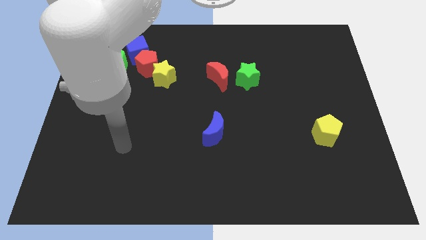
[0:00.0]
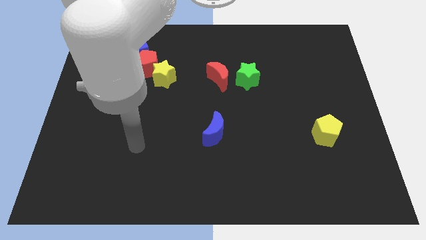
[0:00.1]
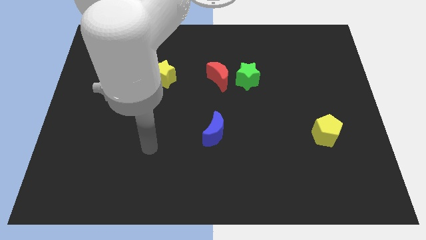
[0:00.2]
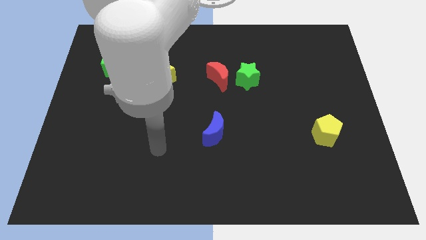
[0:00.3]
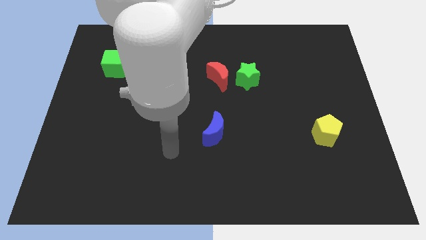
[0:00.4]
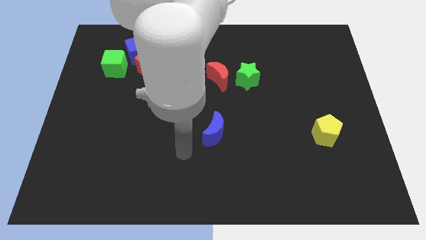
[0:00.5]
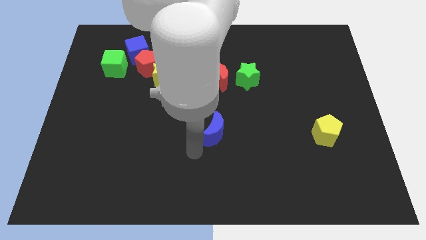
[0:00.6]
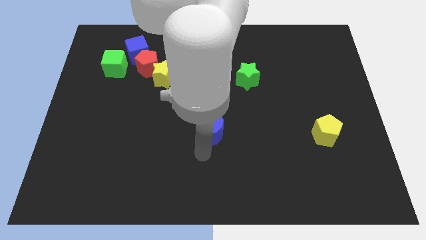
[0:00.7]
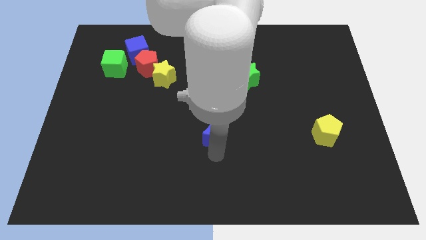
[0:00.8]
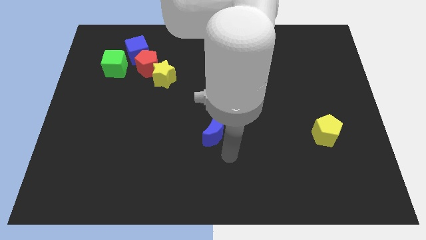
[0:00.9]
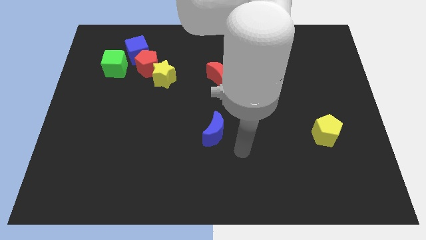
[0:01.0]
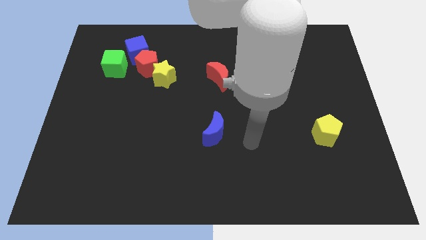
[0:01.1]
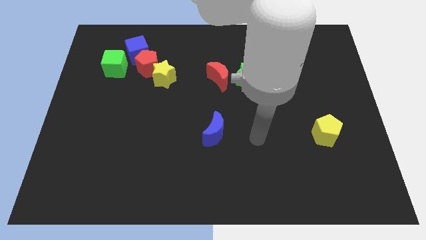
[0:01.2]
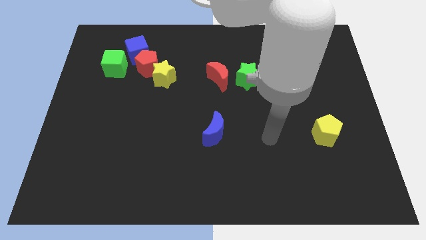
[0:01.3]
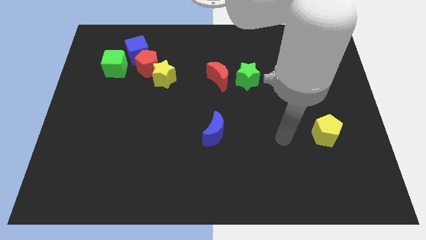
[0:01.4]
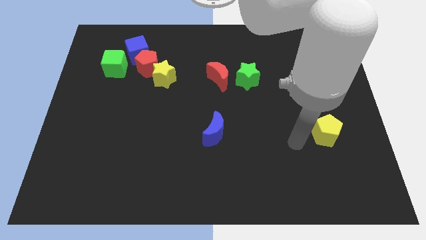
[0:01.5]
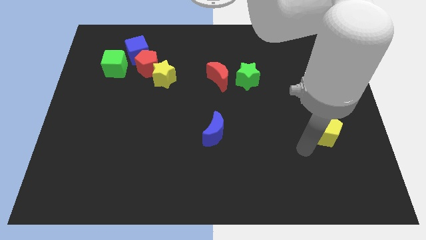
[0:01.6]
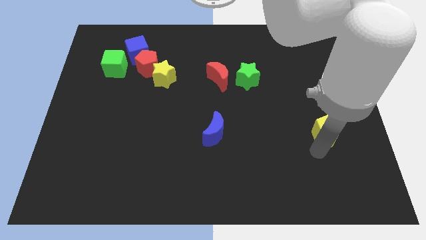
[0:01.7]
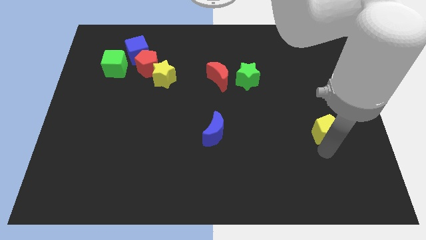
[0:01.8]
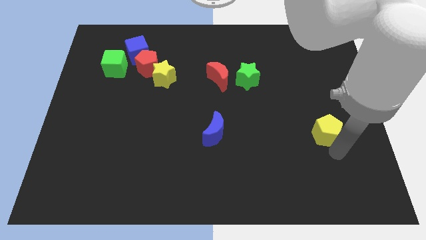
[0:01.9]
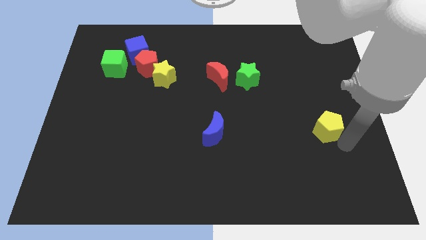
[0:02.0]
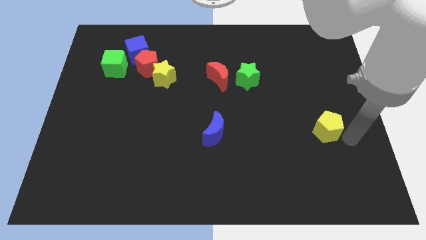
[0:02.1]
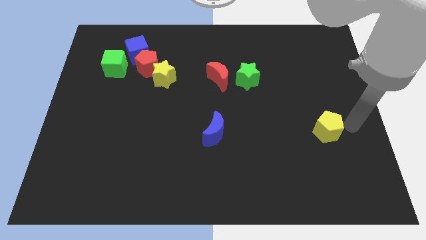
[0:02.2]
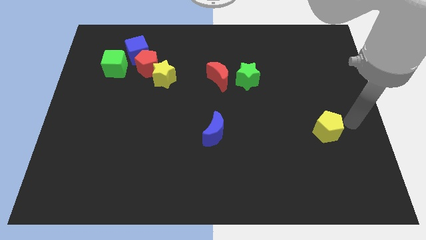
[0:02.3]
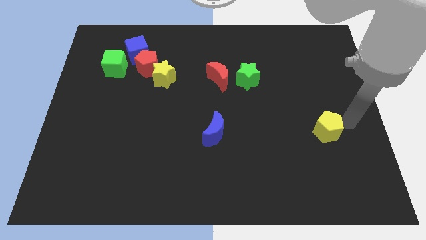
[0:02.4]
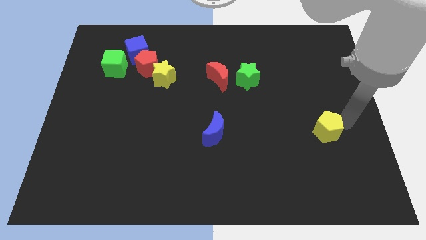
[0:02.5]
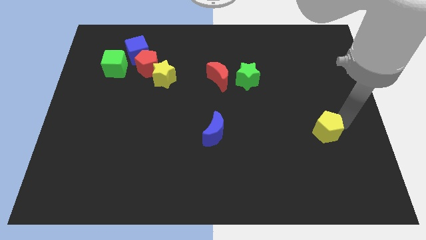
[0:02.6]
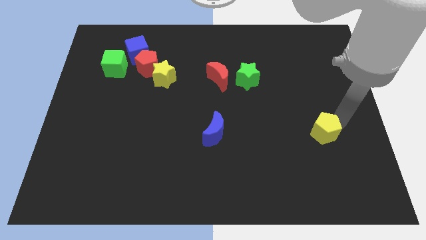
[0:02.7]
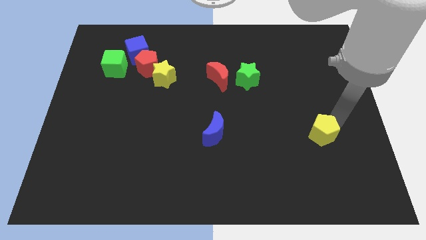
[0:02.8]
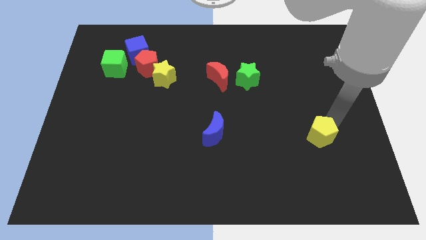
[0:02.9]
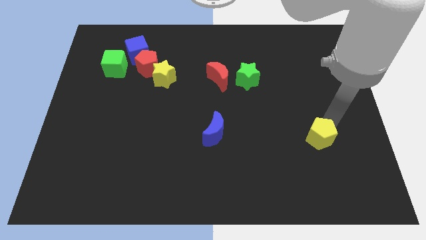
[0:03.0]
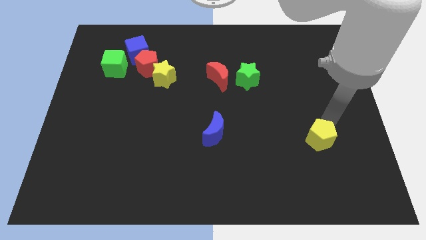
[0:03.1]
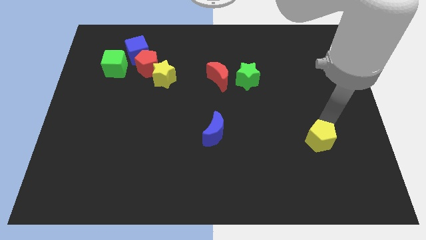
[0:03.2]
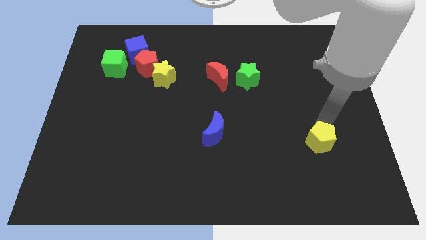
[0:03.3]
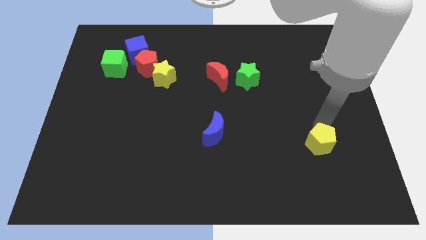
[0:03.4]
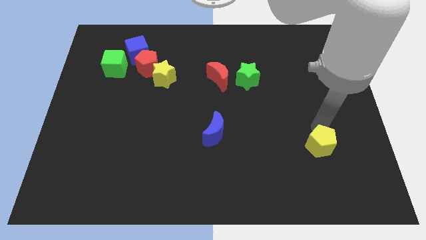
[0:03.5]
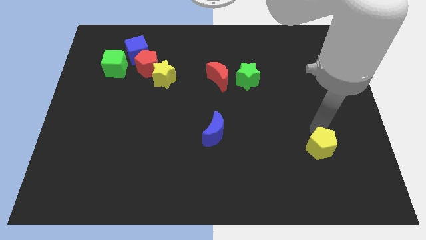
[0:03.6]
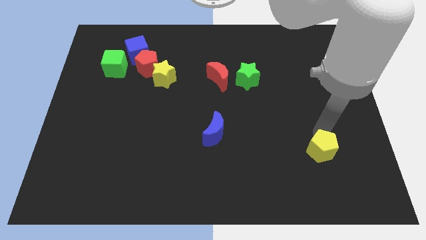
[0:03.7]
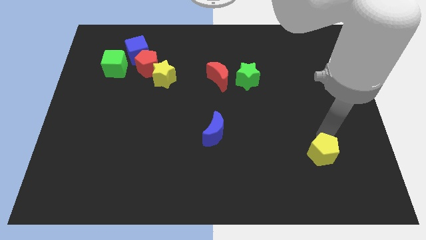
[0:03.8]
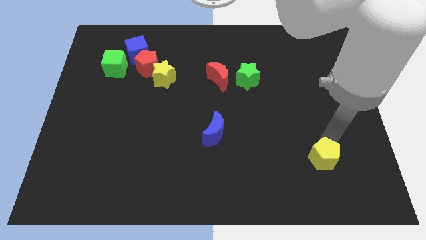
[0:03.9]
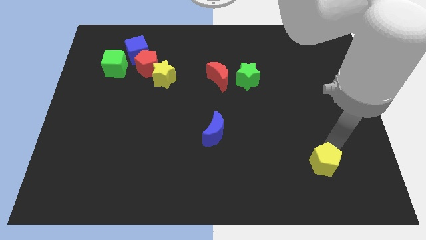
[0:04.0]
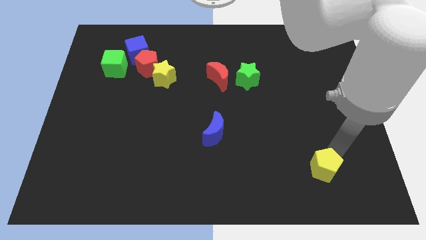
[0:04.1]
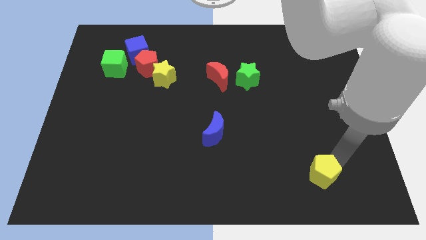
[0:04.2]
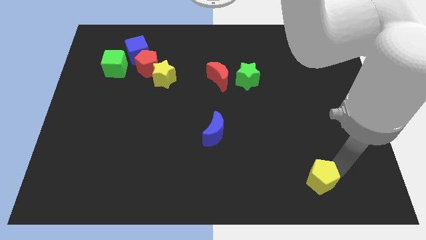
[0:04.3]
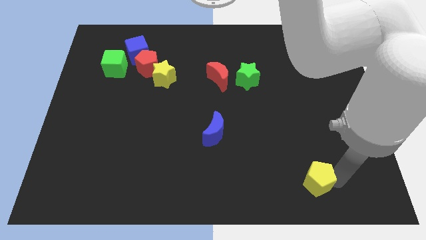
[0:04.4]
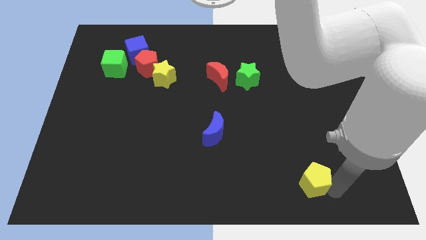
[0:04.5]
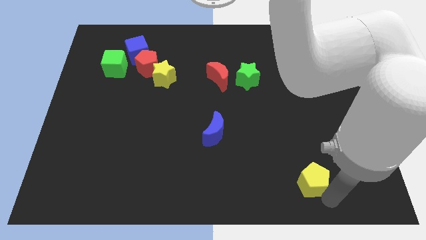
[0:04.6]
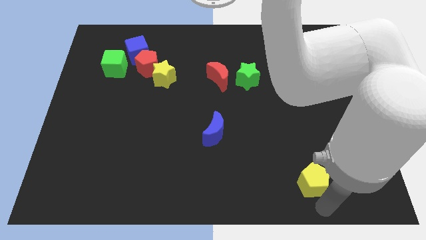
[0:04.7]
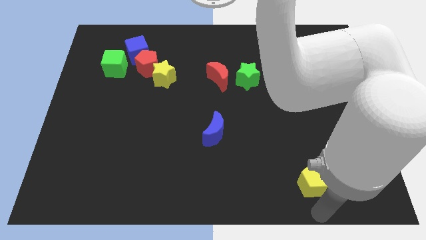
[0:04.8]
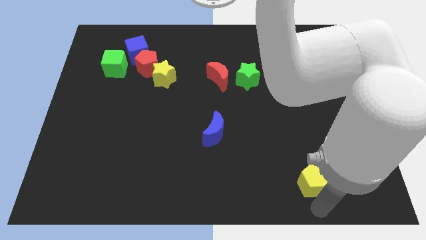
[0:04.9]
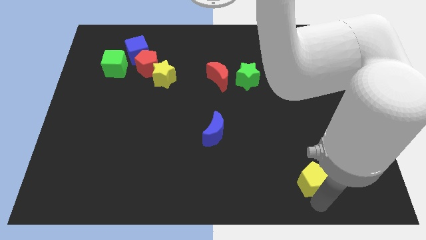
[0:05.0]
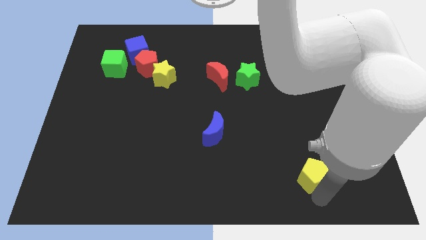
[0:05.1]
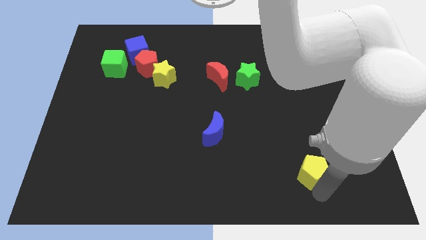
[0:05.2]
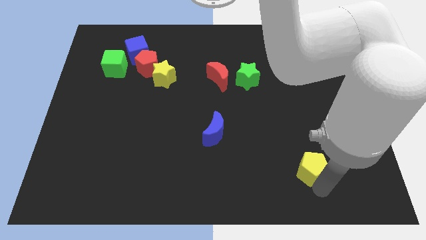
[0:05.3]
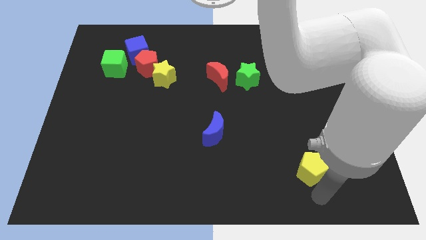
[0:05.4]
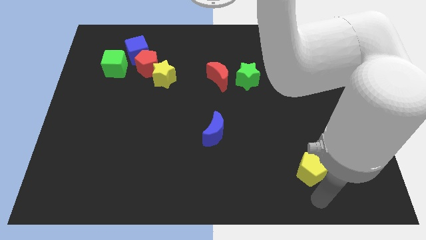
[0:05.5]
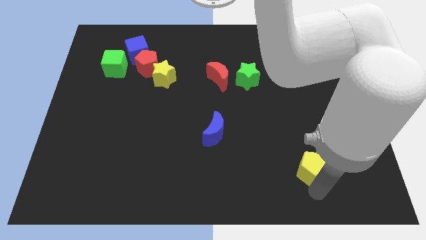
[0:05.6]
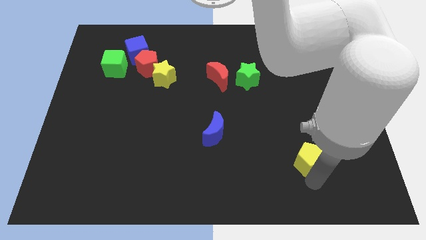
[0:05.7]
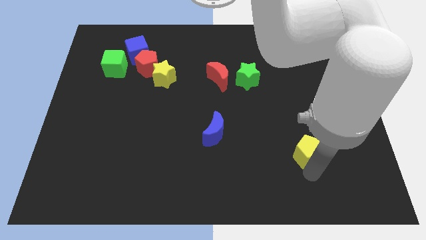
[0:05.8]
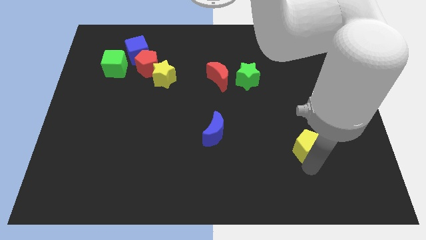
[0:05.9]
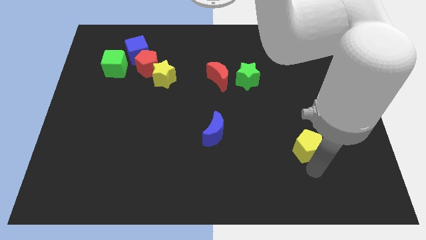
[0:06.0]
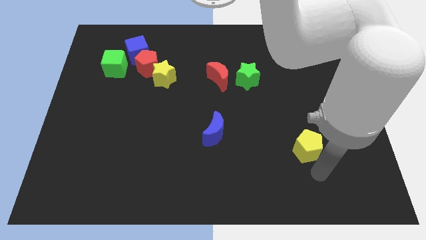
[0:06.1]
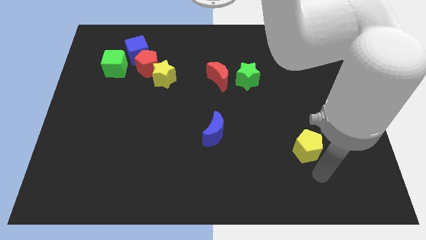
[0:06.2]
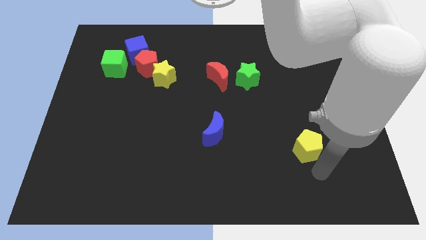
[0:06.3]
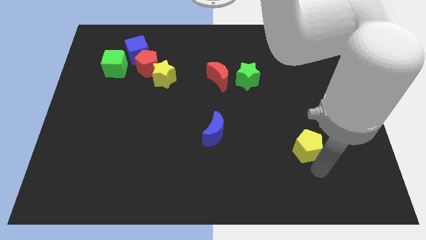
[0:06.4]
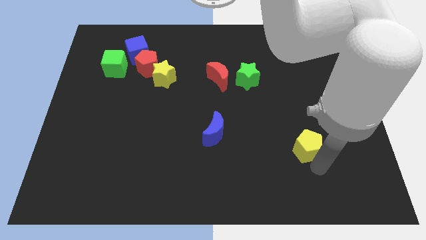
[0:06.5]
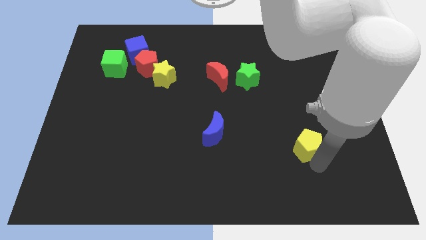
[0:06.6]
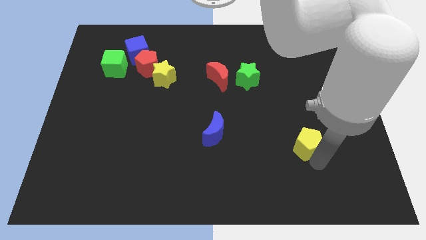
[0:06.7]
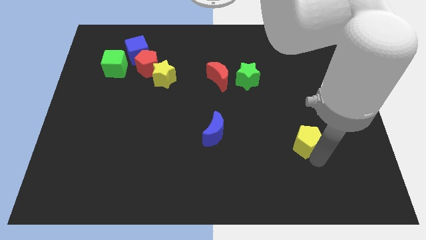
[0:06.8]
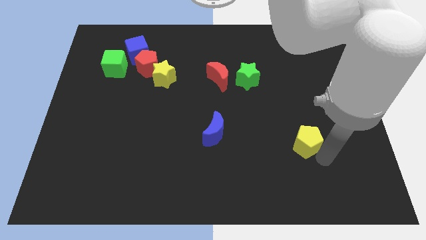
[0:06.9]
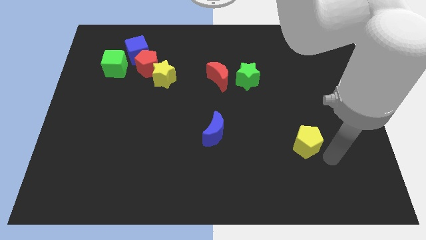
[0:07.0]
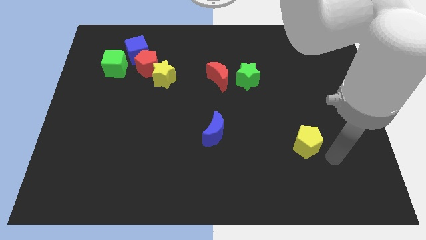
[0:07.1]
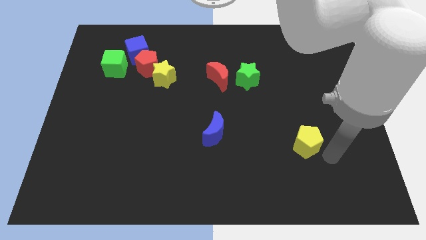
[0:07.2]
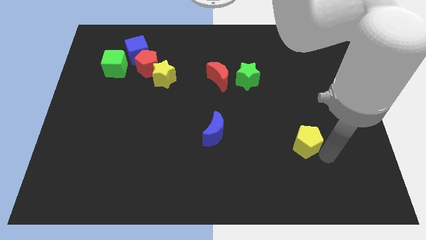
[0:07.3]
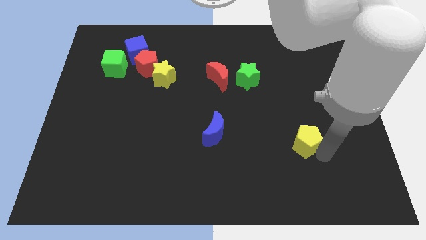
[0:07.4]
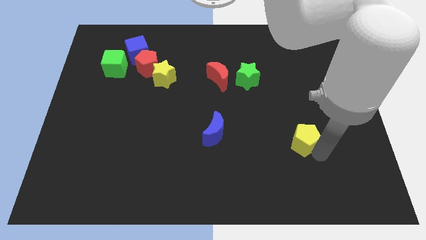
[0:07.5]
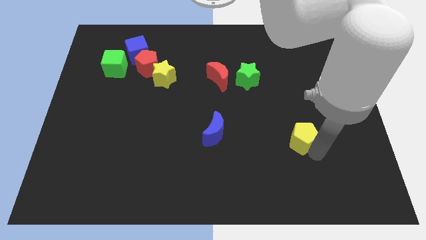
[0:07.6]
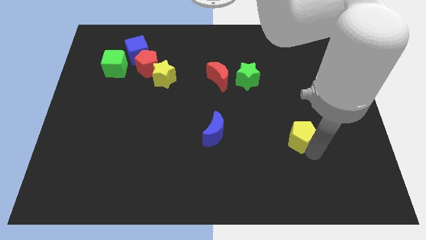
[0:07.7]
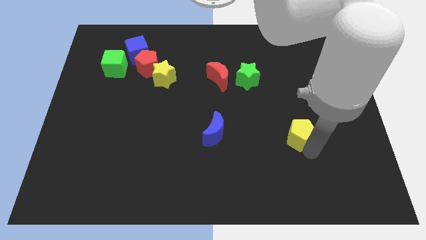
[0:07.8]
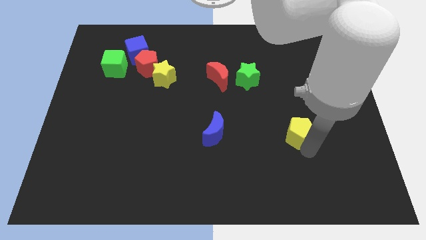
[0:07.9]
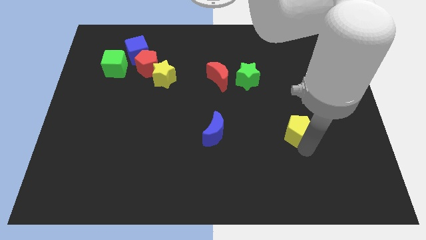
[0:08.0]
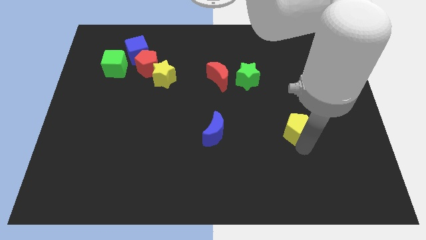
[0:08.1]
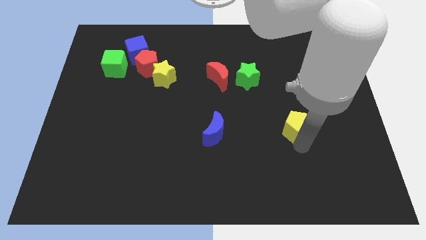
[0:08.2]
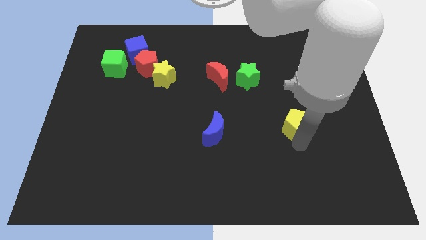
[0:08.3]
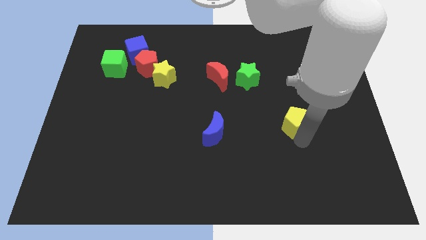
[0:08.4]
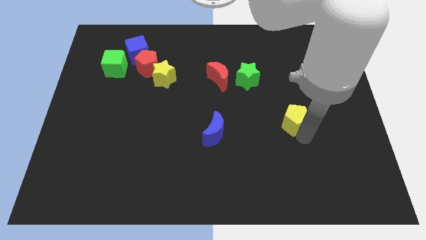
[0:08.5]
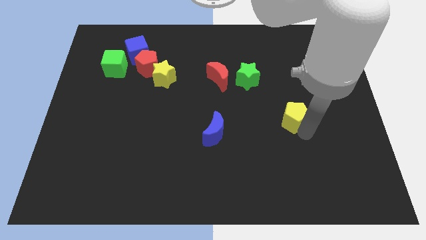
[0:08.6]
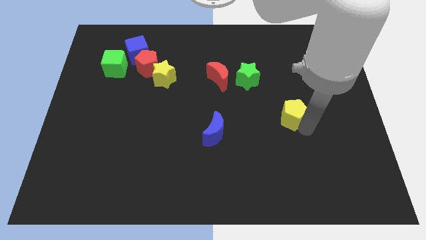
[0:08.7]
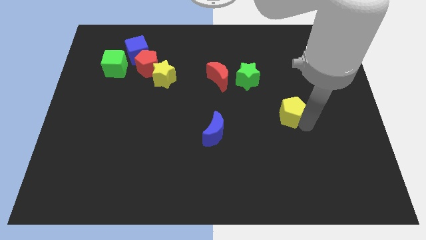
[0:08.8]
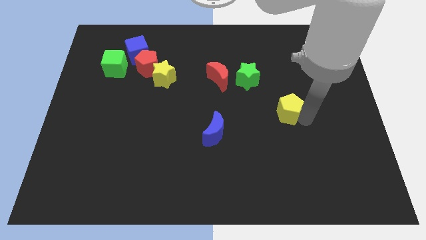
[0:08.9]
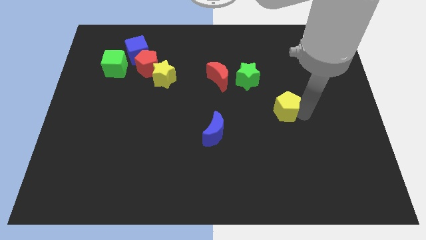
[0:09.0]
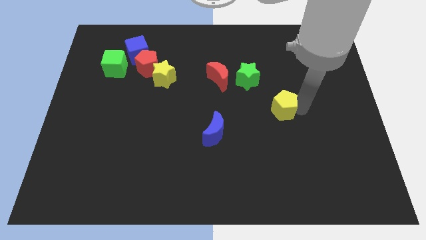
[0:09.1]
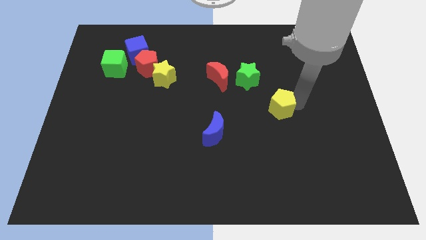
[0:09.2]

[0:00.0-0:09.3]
slide the yellow pentagon a bit to the left
